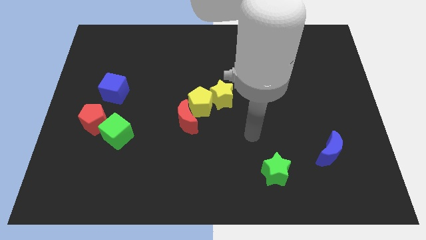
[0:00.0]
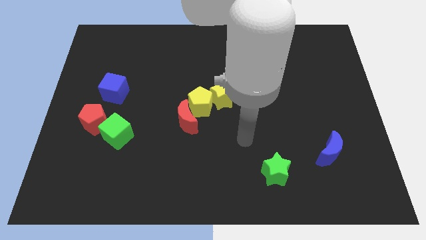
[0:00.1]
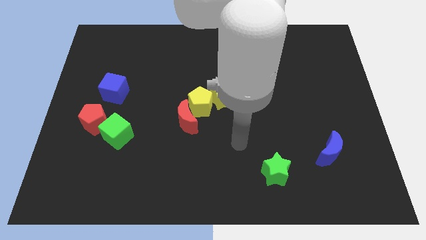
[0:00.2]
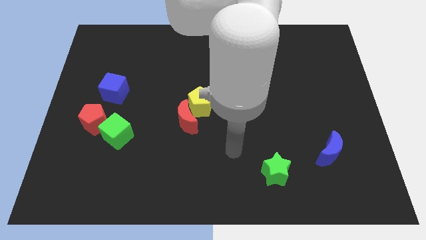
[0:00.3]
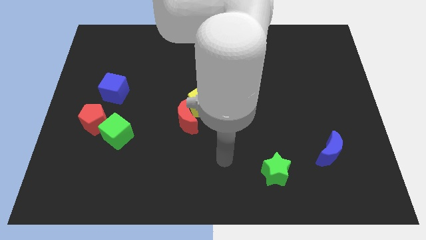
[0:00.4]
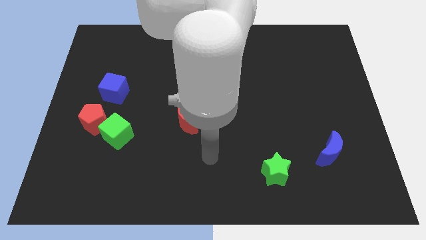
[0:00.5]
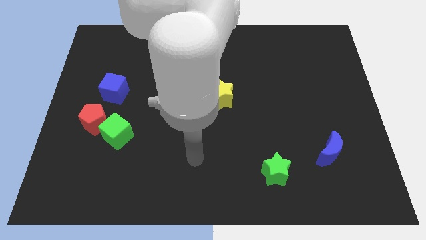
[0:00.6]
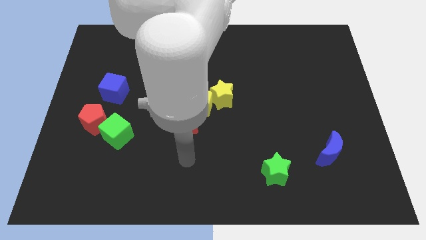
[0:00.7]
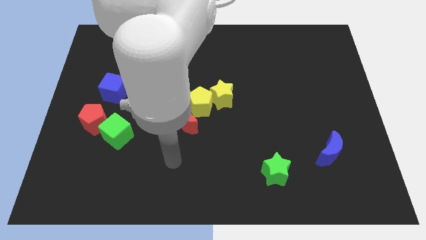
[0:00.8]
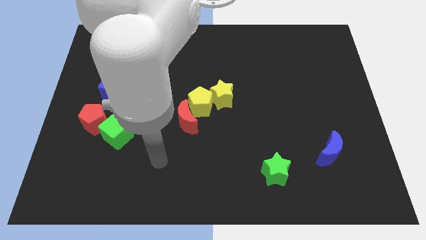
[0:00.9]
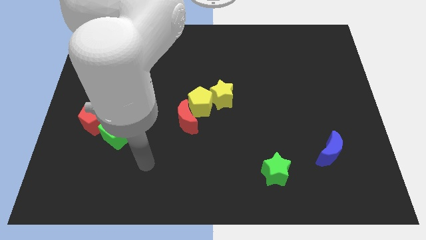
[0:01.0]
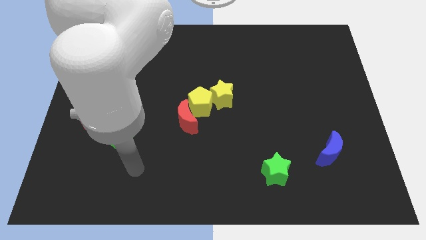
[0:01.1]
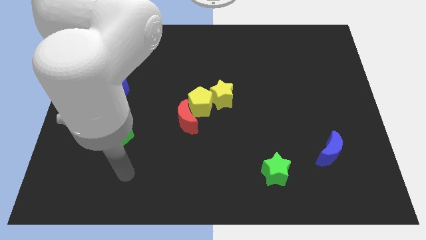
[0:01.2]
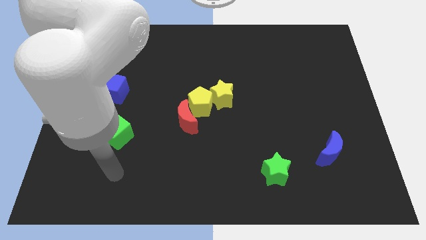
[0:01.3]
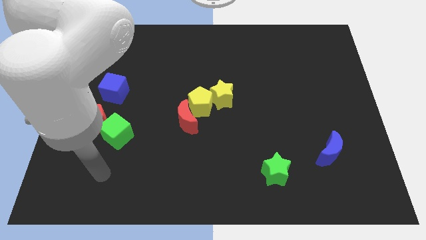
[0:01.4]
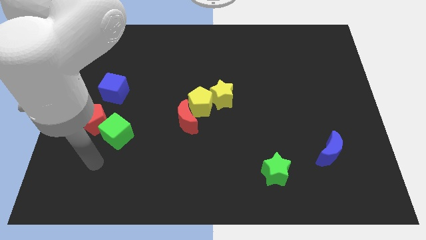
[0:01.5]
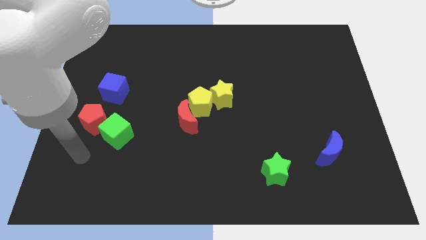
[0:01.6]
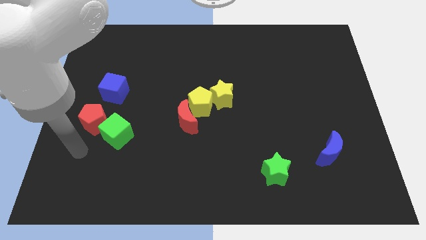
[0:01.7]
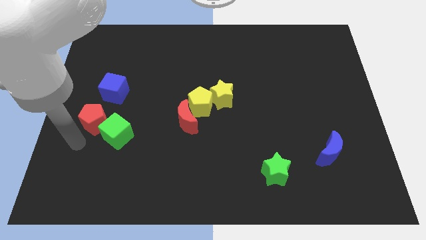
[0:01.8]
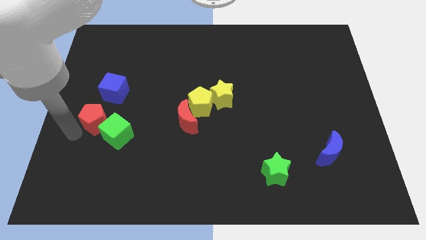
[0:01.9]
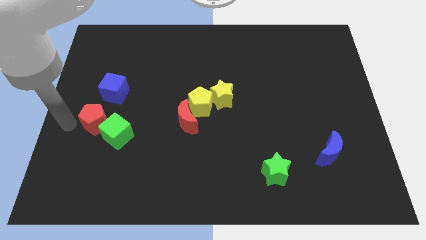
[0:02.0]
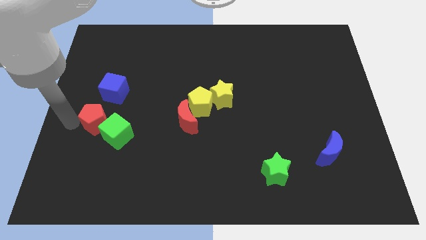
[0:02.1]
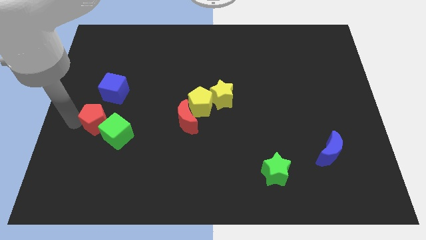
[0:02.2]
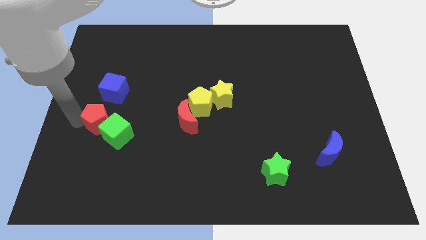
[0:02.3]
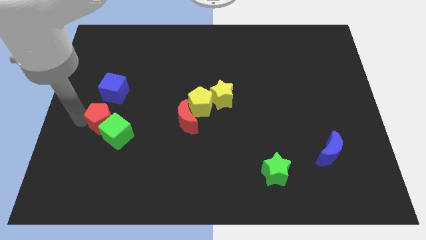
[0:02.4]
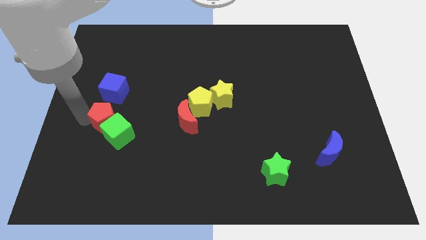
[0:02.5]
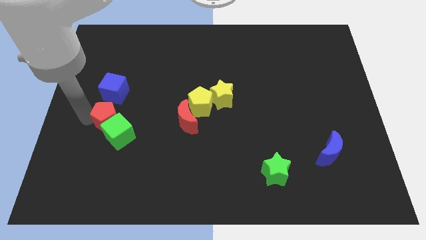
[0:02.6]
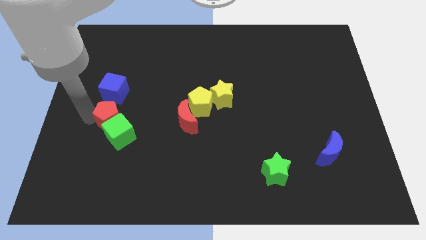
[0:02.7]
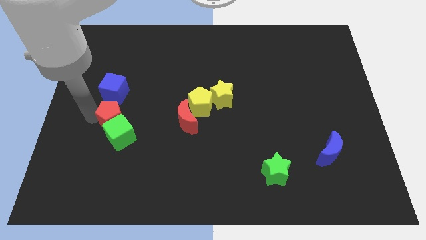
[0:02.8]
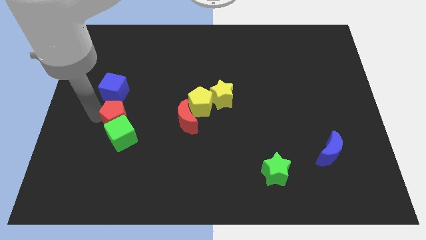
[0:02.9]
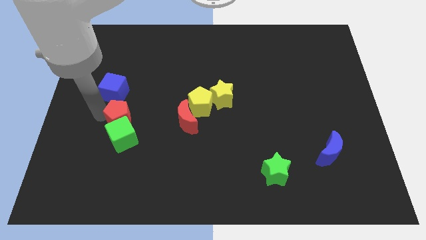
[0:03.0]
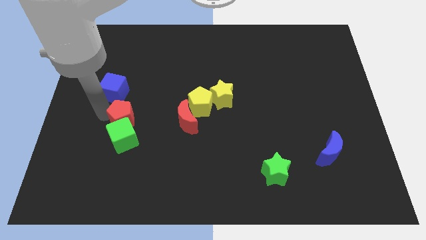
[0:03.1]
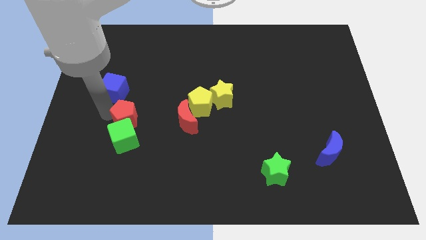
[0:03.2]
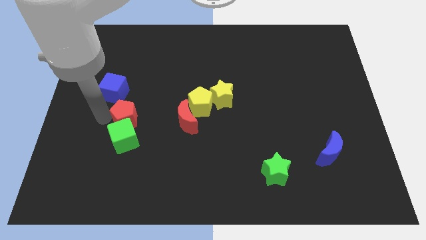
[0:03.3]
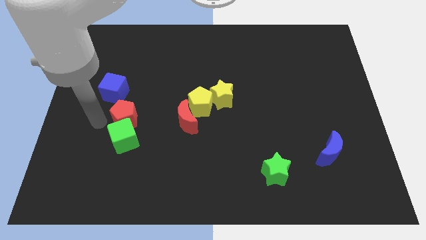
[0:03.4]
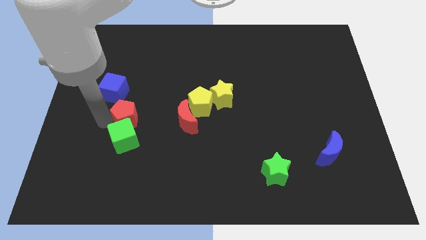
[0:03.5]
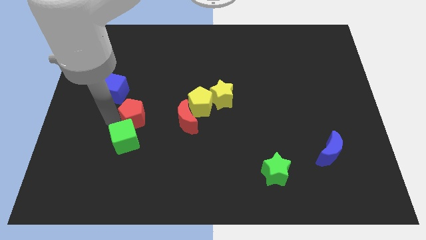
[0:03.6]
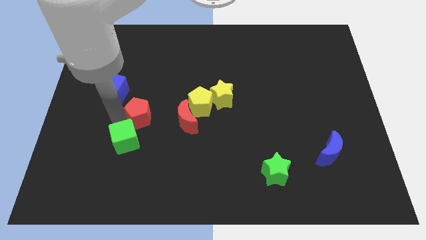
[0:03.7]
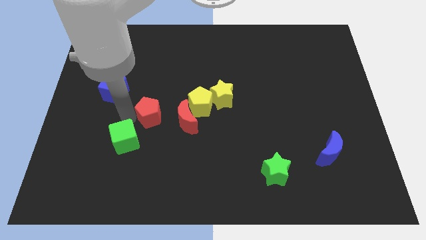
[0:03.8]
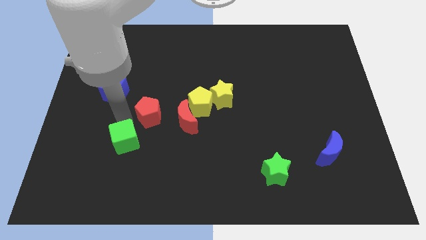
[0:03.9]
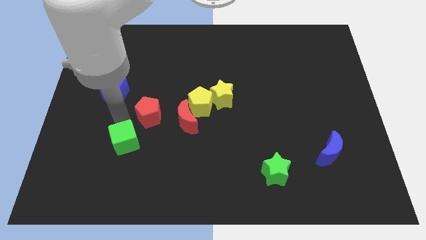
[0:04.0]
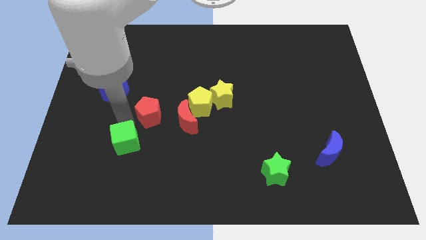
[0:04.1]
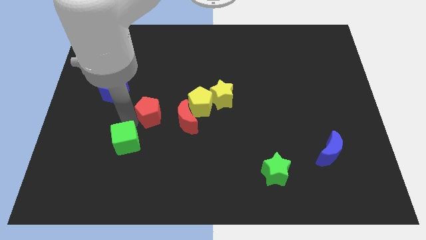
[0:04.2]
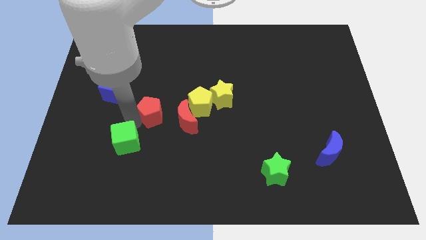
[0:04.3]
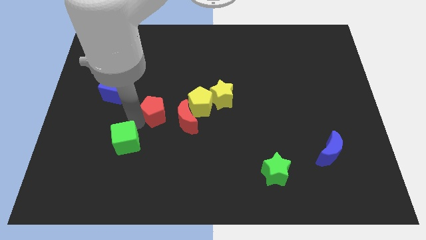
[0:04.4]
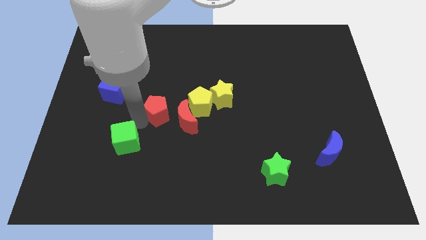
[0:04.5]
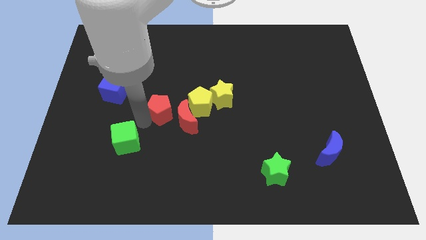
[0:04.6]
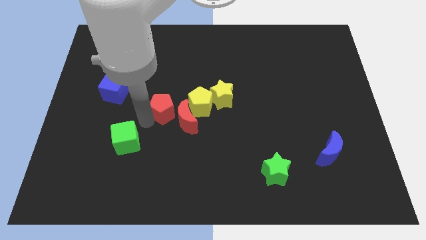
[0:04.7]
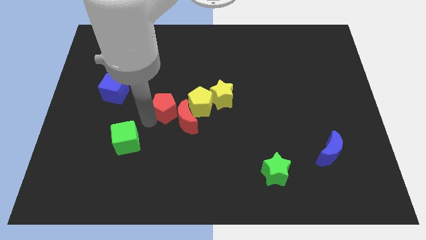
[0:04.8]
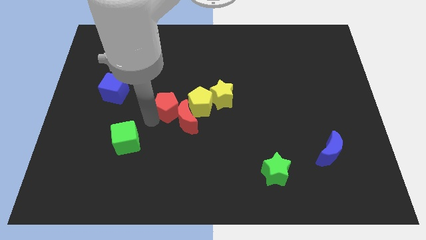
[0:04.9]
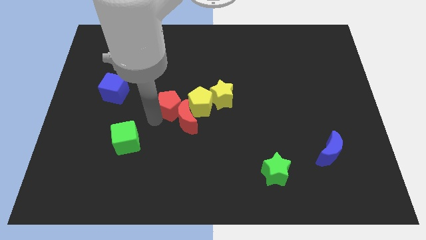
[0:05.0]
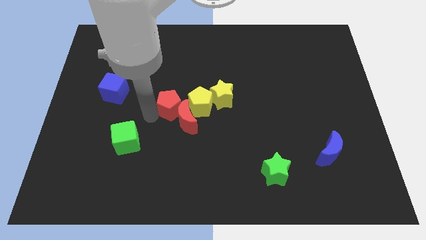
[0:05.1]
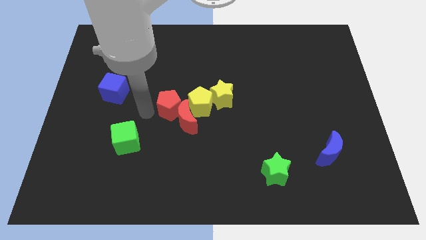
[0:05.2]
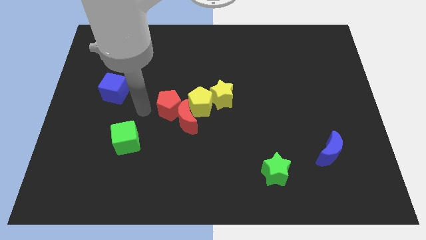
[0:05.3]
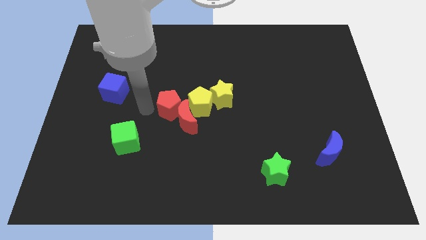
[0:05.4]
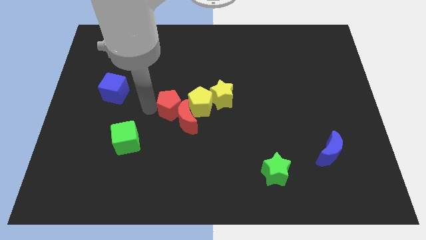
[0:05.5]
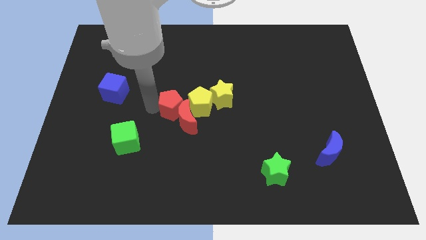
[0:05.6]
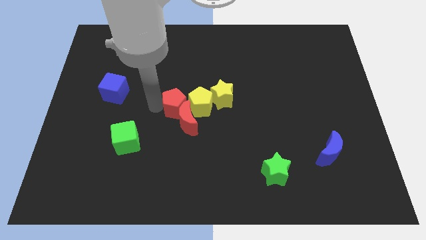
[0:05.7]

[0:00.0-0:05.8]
push the red pentagon next to the yellow pentagon
